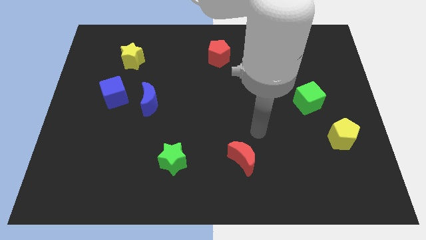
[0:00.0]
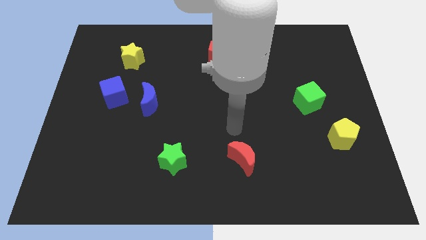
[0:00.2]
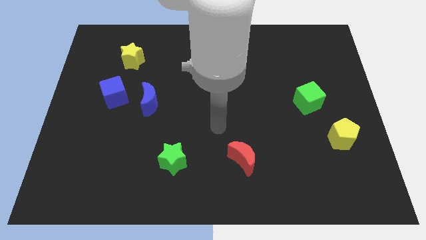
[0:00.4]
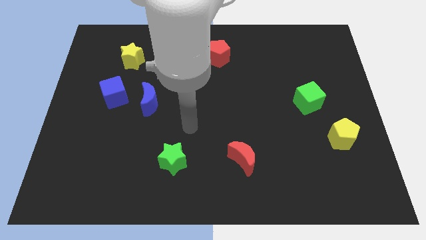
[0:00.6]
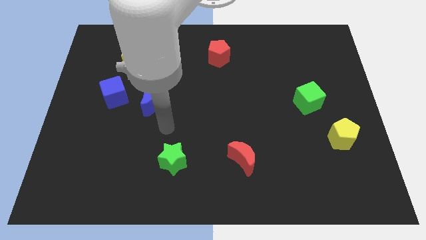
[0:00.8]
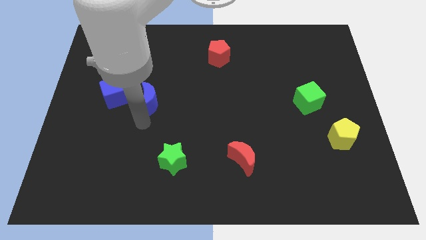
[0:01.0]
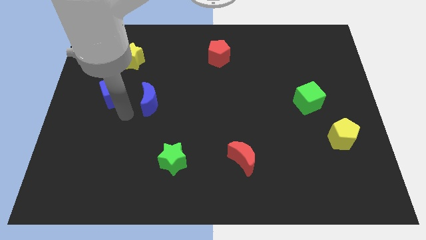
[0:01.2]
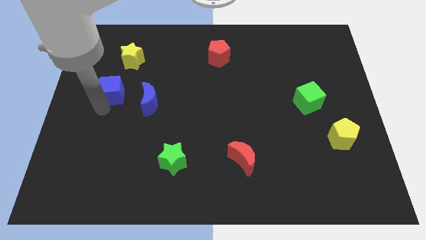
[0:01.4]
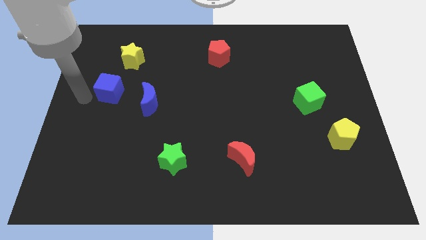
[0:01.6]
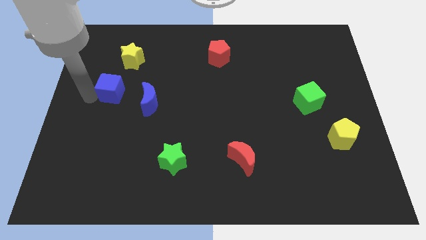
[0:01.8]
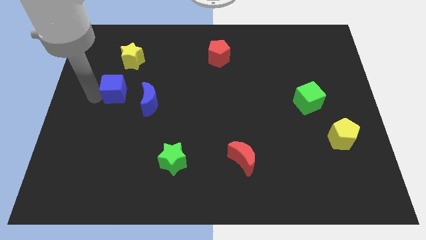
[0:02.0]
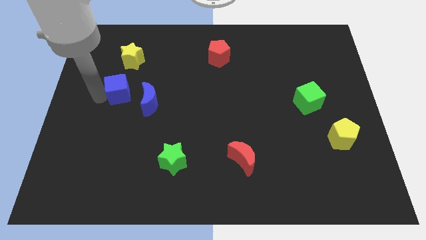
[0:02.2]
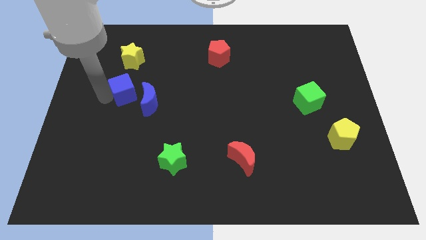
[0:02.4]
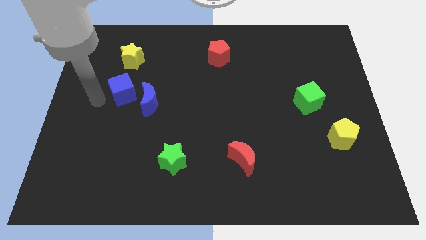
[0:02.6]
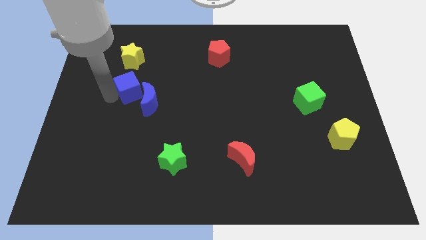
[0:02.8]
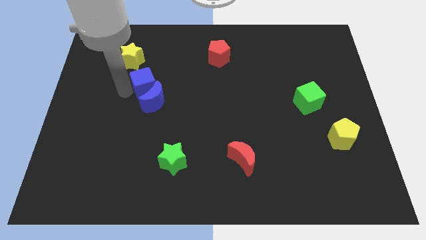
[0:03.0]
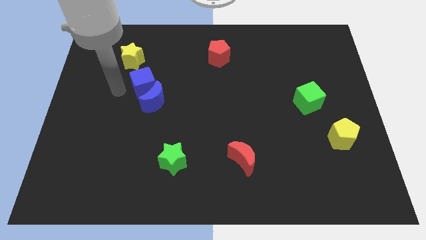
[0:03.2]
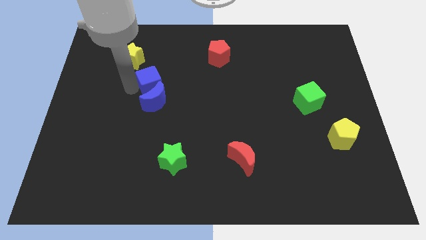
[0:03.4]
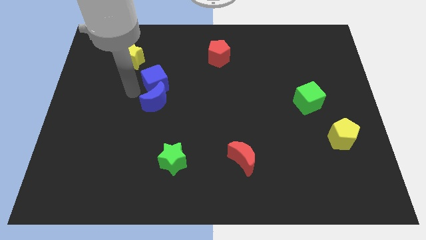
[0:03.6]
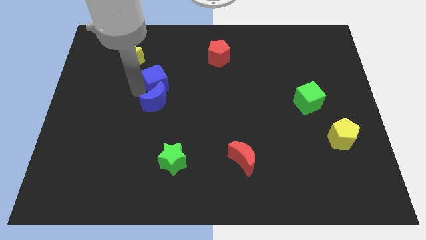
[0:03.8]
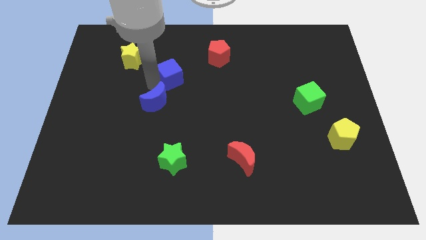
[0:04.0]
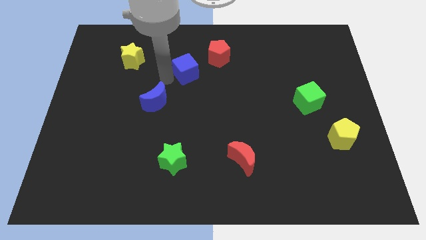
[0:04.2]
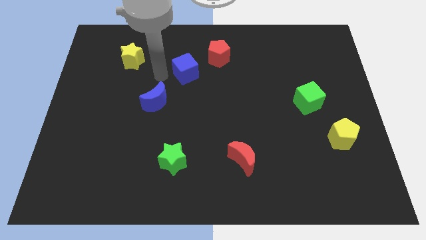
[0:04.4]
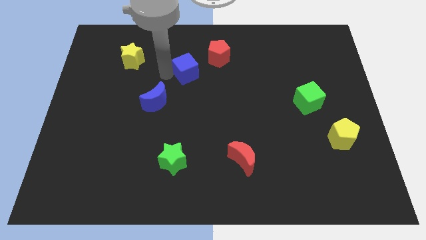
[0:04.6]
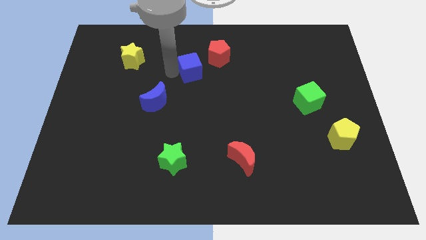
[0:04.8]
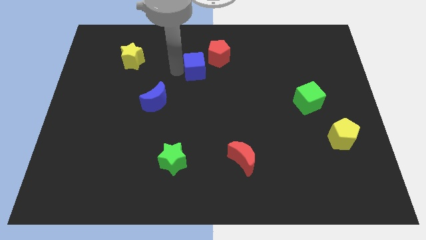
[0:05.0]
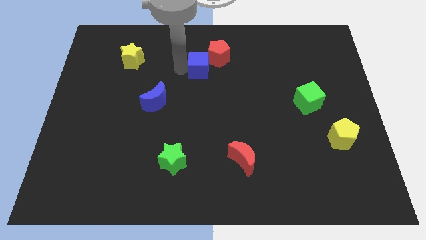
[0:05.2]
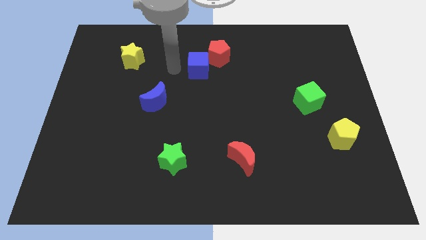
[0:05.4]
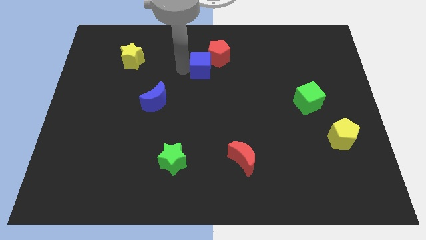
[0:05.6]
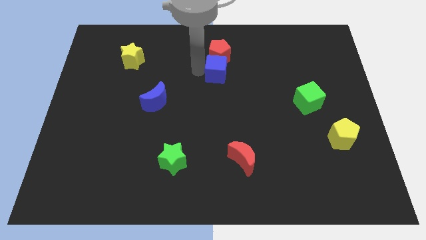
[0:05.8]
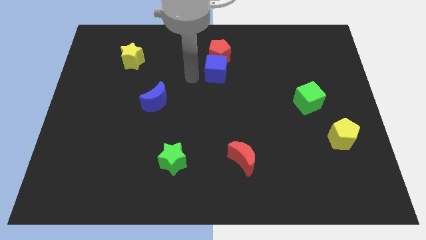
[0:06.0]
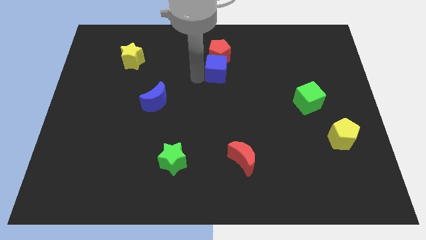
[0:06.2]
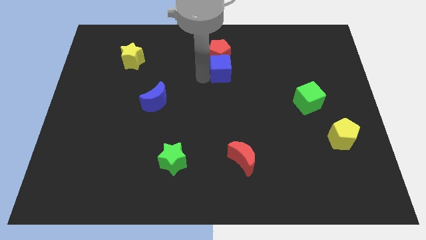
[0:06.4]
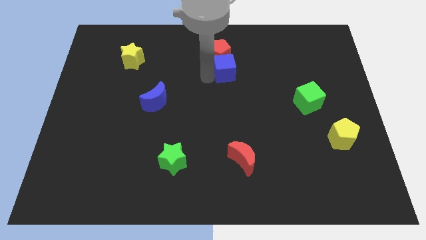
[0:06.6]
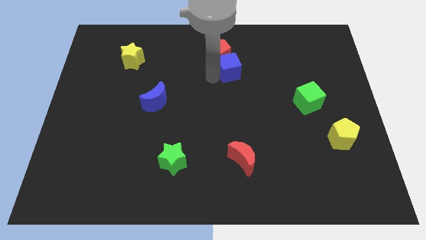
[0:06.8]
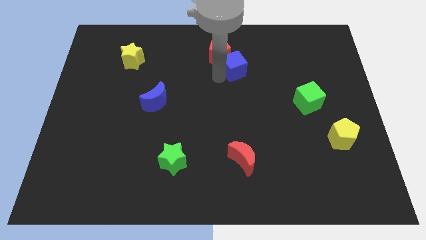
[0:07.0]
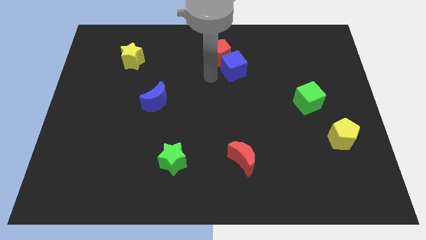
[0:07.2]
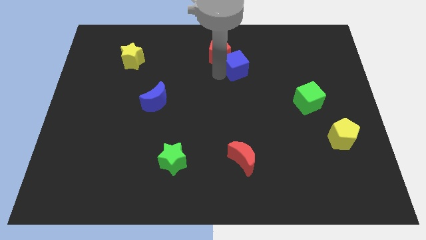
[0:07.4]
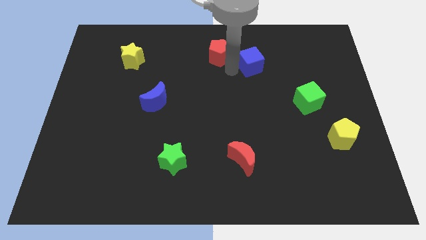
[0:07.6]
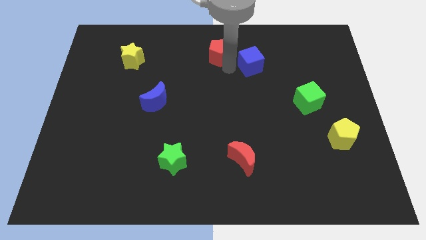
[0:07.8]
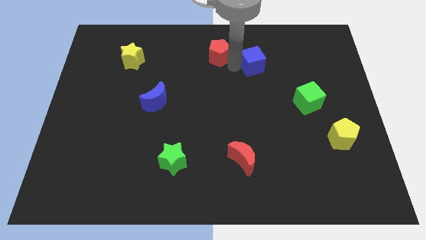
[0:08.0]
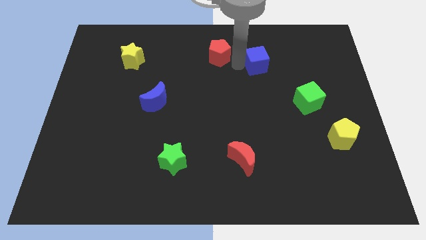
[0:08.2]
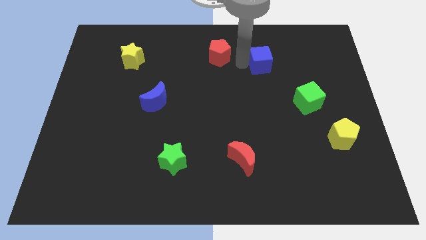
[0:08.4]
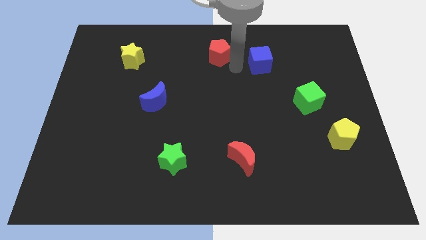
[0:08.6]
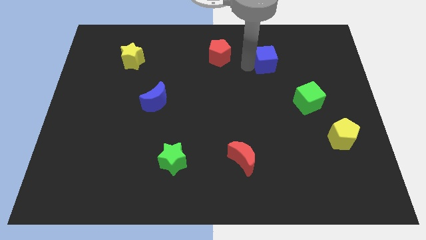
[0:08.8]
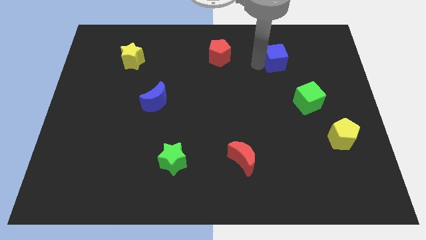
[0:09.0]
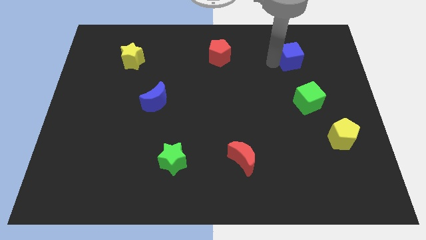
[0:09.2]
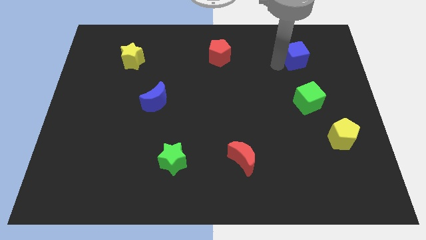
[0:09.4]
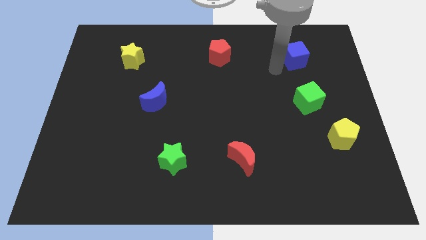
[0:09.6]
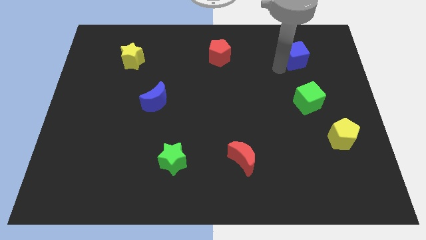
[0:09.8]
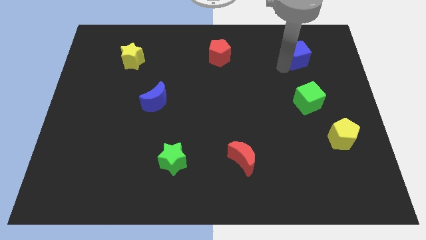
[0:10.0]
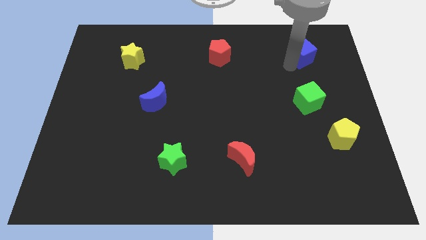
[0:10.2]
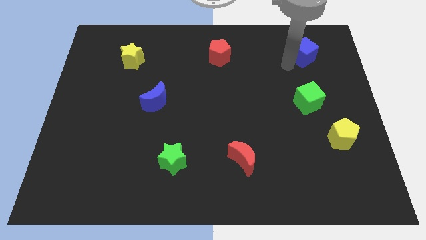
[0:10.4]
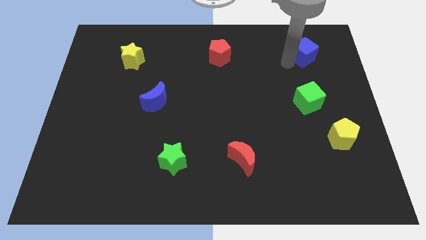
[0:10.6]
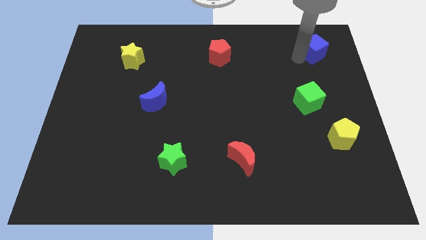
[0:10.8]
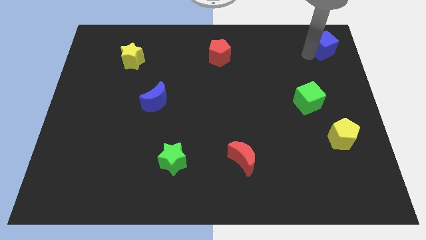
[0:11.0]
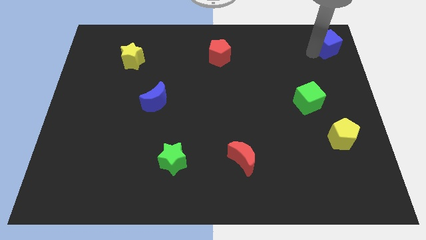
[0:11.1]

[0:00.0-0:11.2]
move the blue cube to the upper right corner
